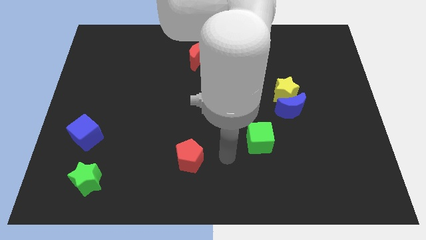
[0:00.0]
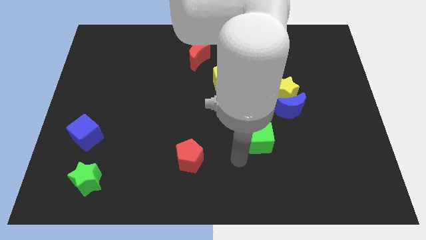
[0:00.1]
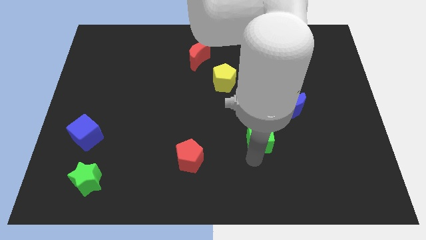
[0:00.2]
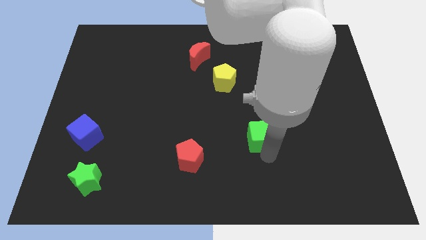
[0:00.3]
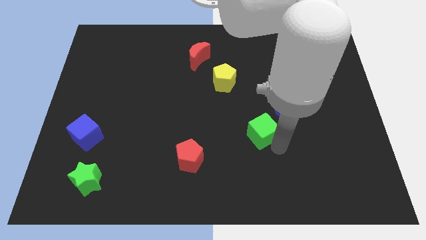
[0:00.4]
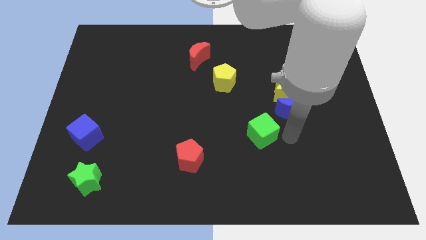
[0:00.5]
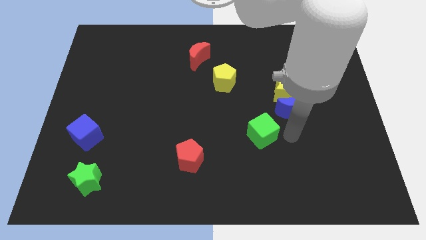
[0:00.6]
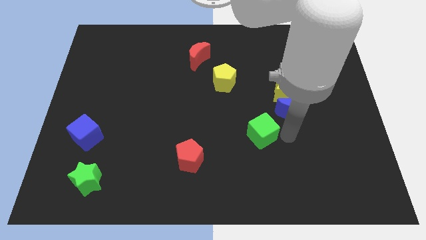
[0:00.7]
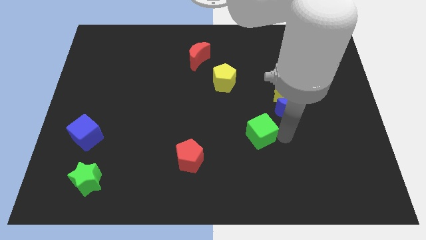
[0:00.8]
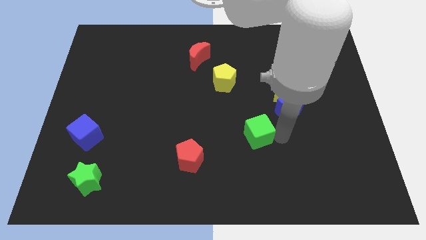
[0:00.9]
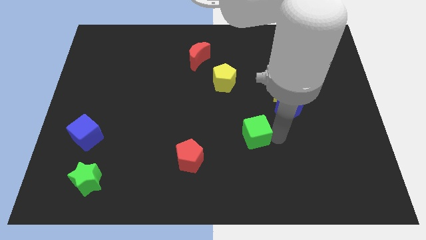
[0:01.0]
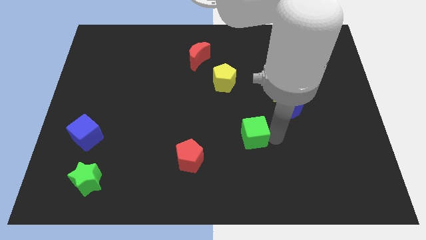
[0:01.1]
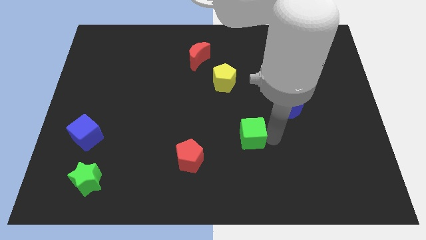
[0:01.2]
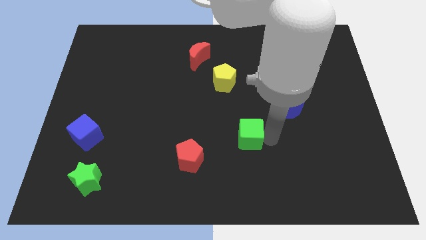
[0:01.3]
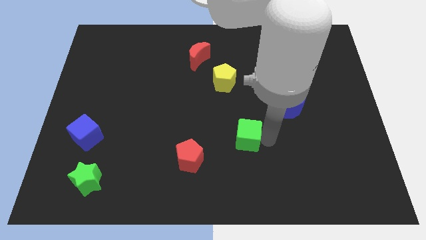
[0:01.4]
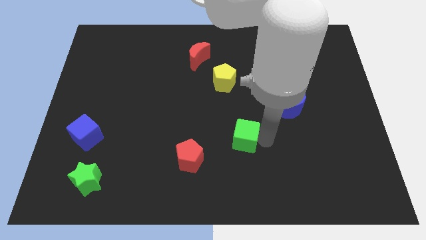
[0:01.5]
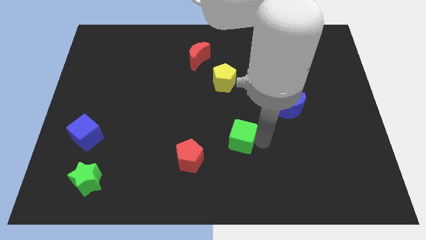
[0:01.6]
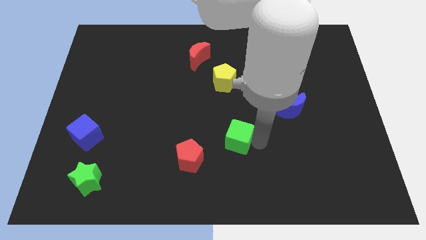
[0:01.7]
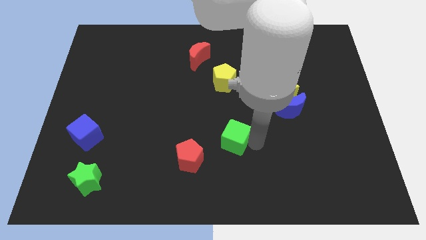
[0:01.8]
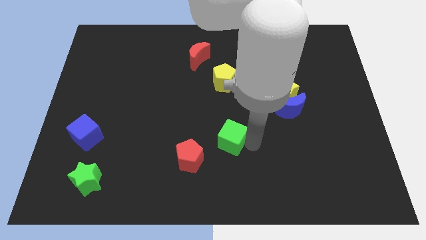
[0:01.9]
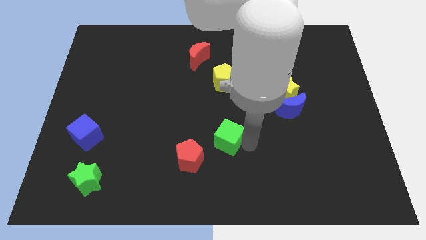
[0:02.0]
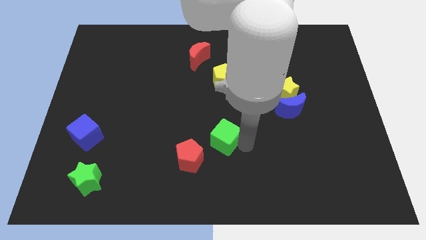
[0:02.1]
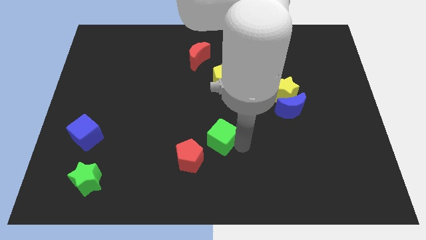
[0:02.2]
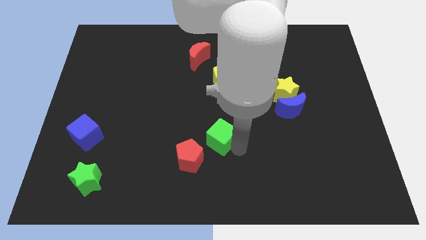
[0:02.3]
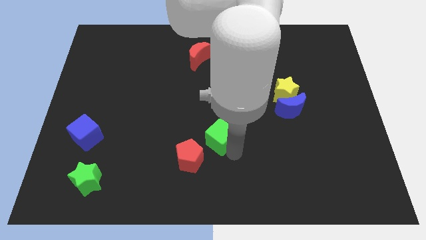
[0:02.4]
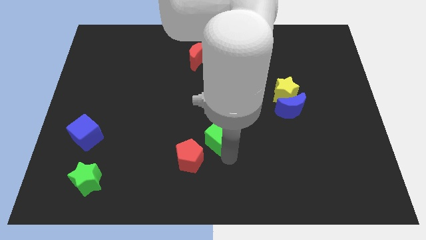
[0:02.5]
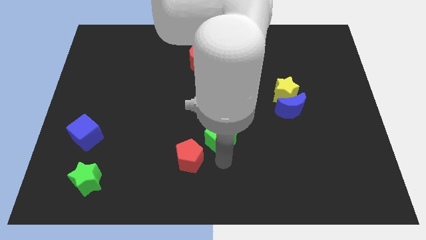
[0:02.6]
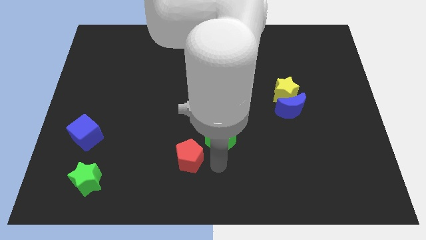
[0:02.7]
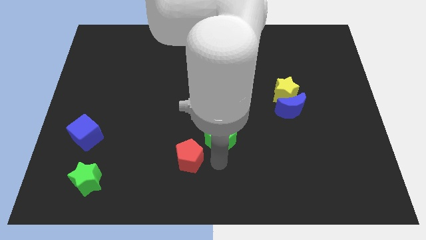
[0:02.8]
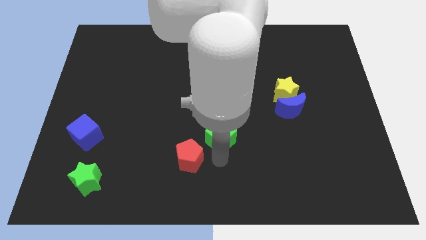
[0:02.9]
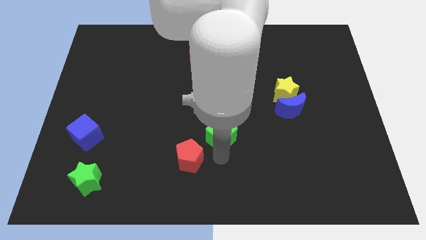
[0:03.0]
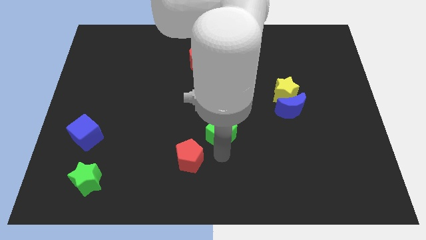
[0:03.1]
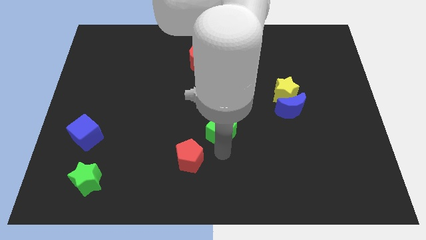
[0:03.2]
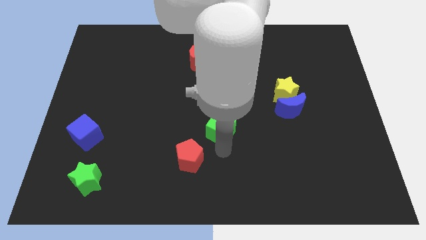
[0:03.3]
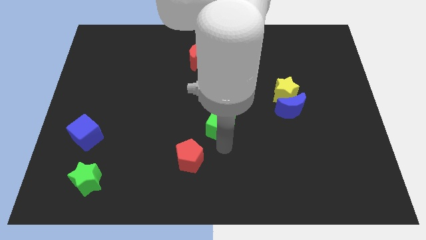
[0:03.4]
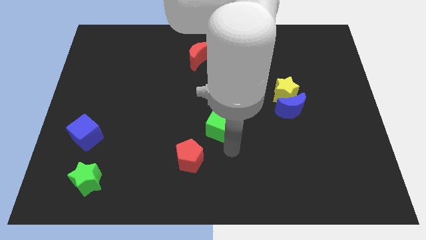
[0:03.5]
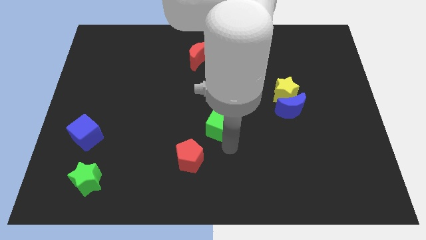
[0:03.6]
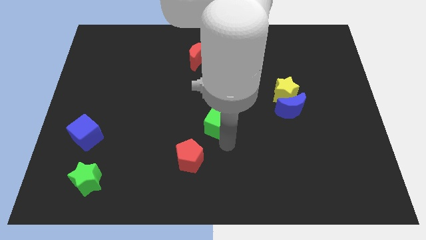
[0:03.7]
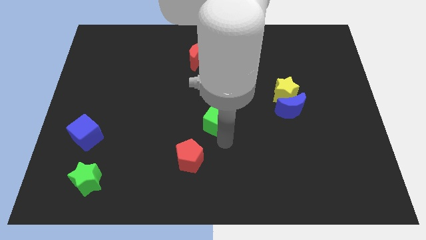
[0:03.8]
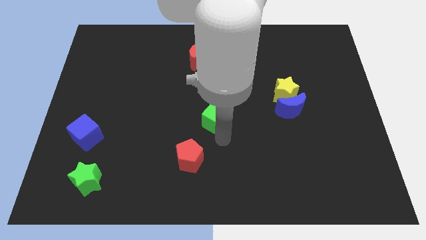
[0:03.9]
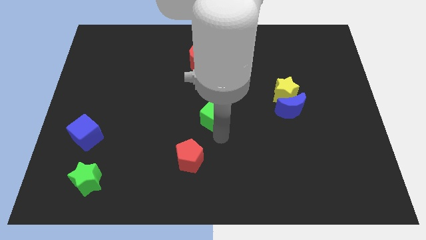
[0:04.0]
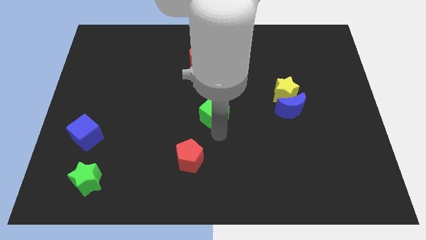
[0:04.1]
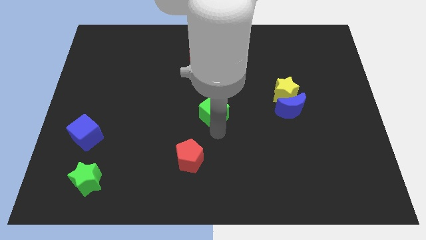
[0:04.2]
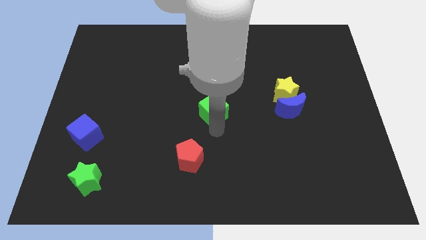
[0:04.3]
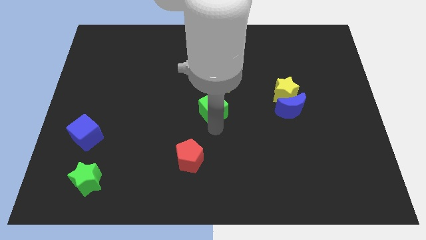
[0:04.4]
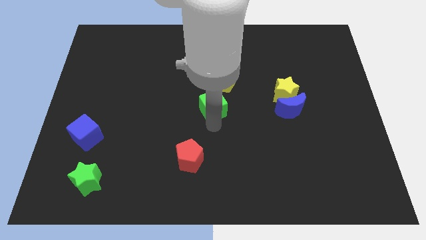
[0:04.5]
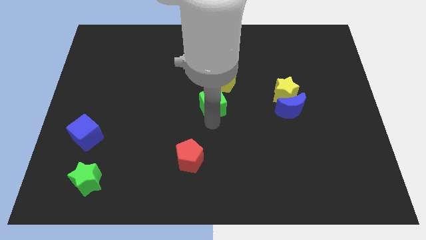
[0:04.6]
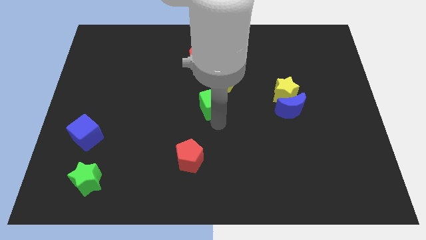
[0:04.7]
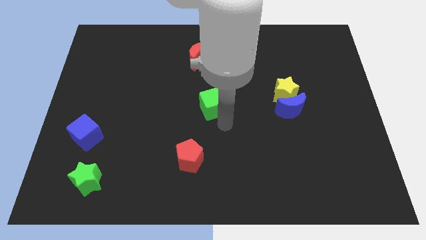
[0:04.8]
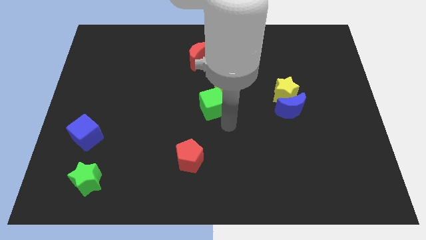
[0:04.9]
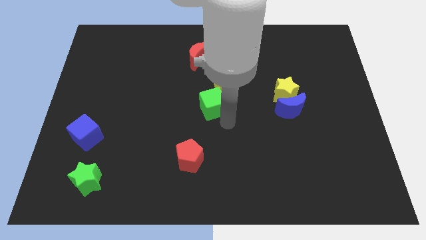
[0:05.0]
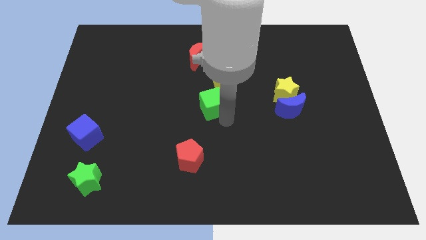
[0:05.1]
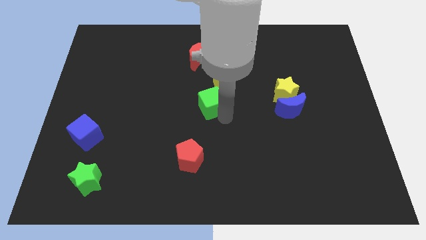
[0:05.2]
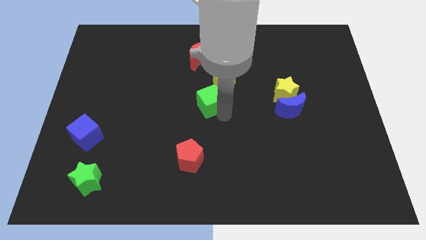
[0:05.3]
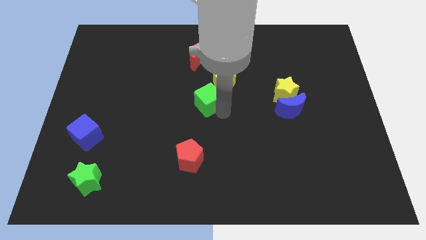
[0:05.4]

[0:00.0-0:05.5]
push the green cube to the bottom side of the red moon

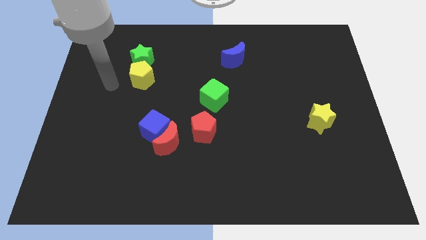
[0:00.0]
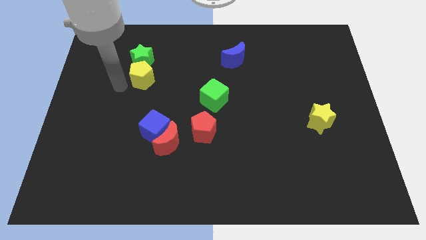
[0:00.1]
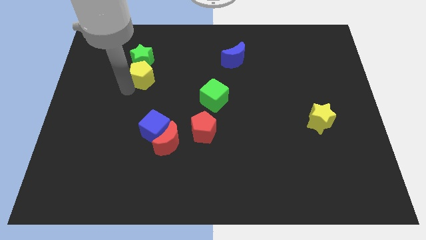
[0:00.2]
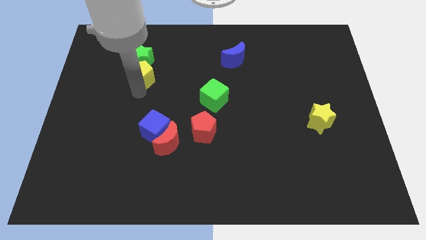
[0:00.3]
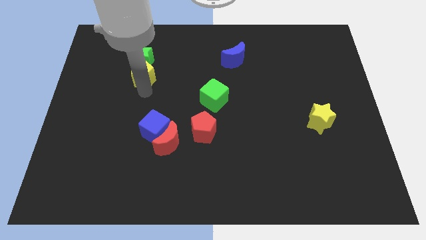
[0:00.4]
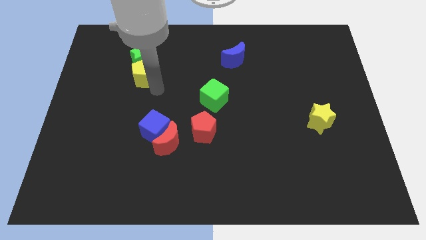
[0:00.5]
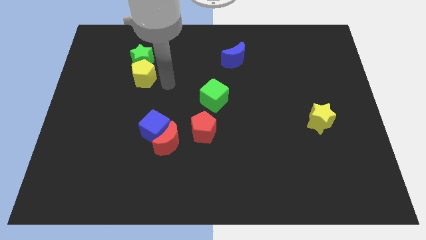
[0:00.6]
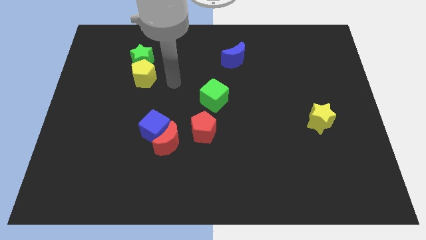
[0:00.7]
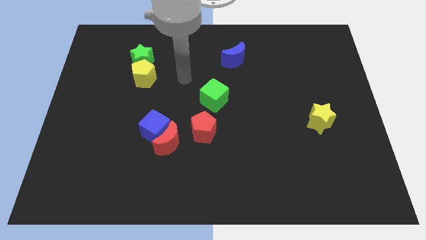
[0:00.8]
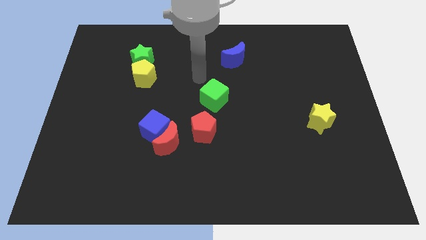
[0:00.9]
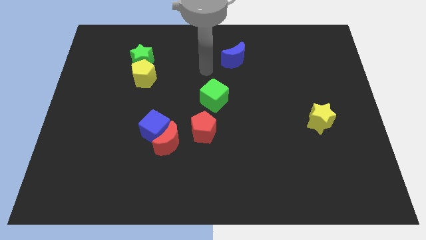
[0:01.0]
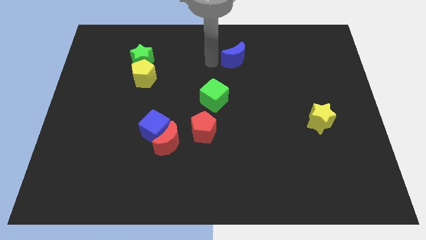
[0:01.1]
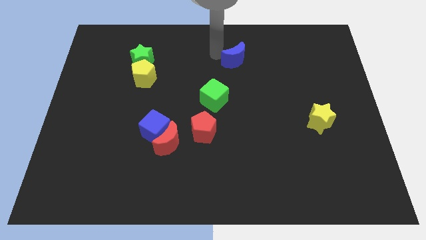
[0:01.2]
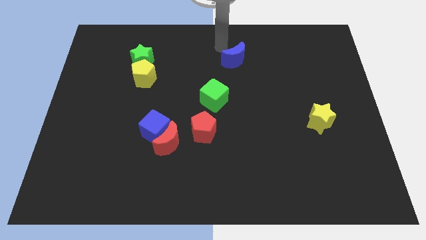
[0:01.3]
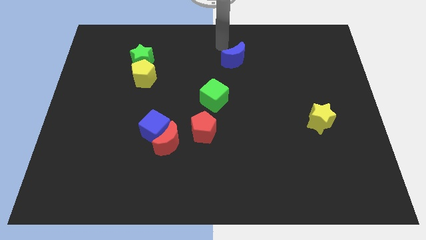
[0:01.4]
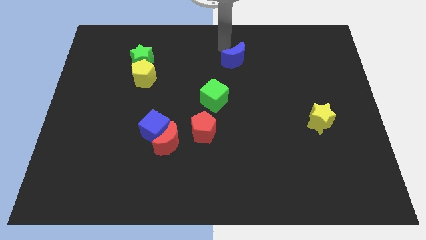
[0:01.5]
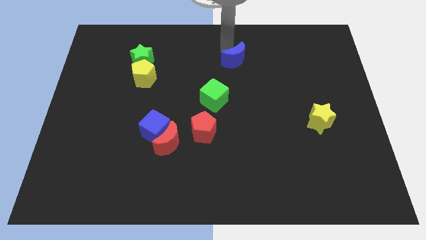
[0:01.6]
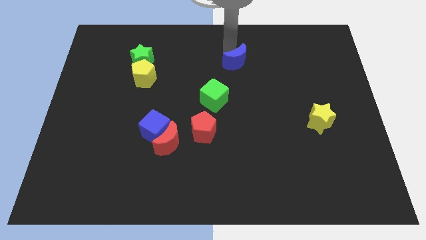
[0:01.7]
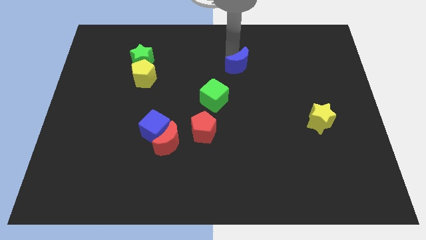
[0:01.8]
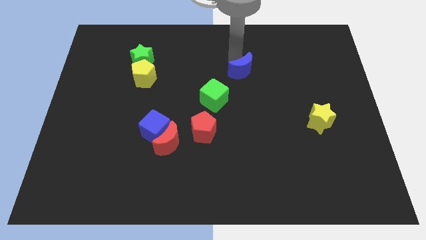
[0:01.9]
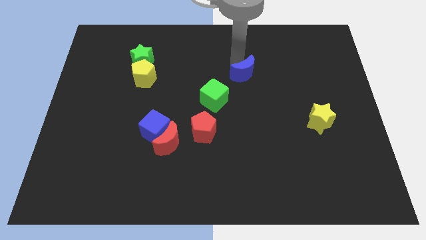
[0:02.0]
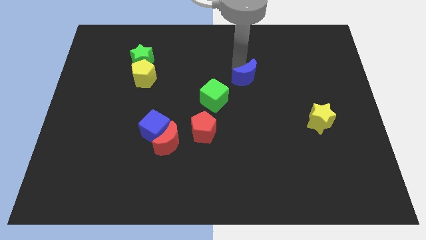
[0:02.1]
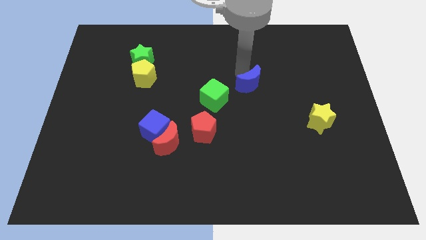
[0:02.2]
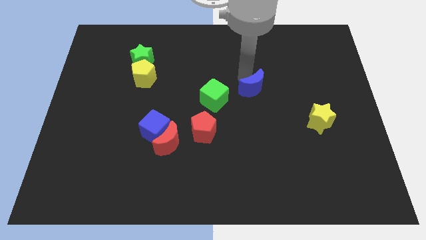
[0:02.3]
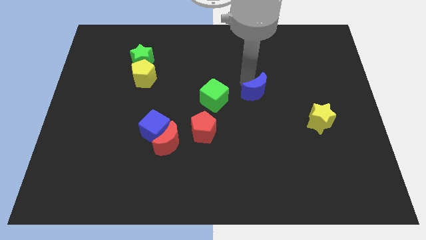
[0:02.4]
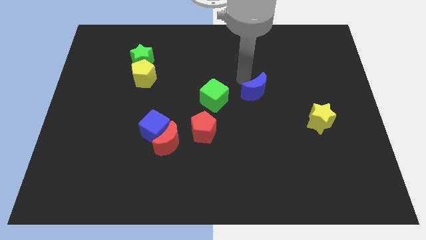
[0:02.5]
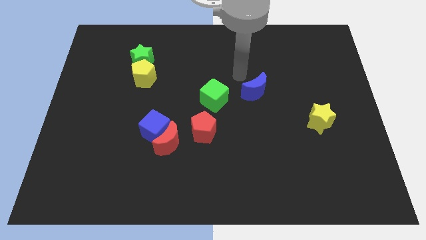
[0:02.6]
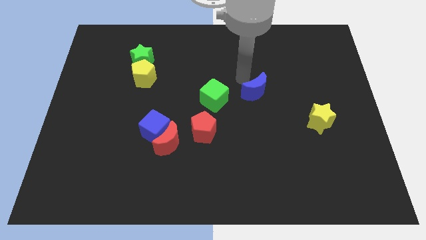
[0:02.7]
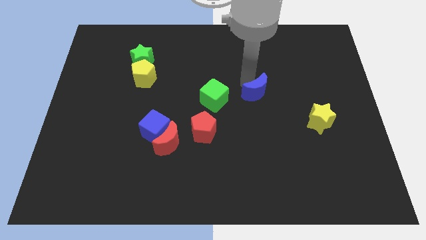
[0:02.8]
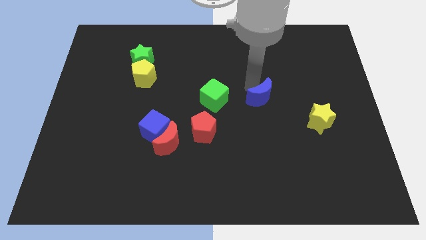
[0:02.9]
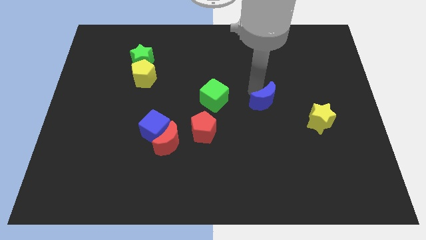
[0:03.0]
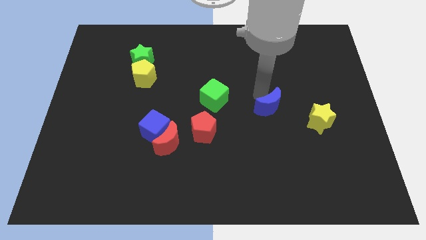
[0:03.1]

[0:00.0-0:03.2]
push the blue moon to the left side of the yellow star
